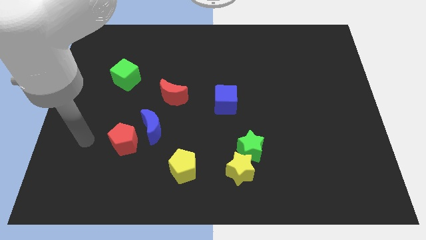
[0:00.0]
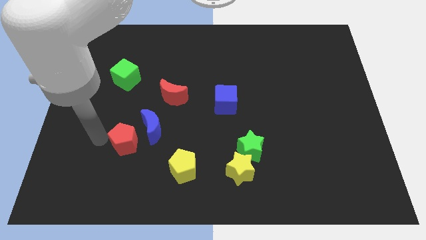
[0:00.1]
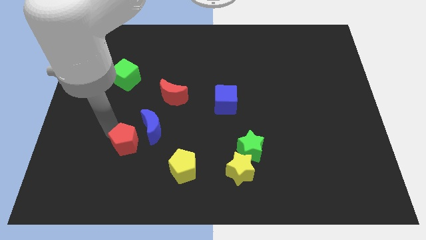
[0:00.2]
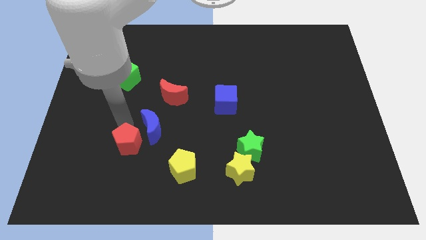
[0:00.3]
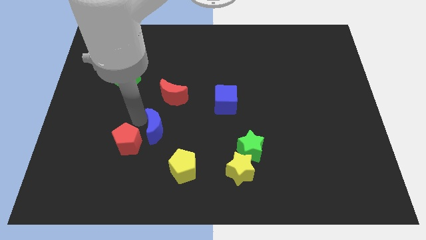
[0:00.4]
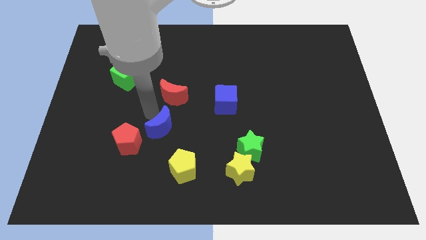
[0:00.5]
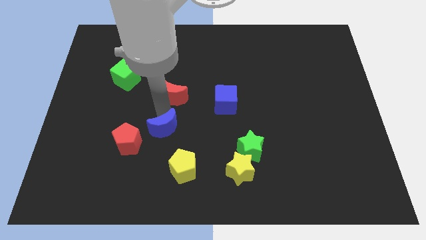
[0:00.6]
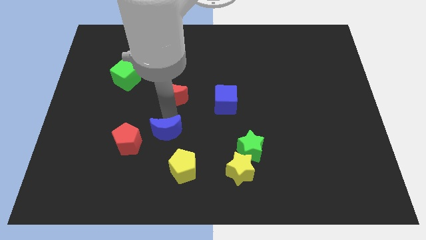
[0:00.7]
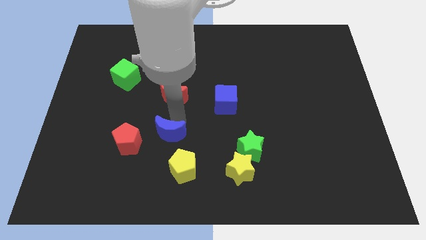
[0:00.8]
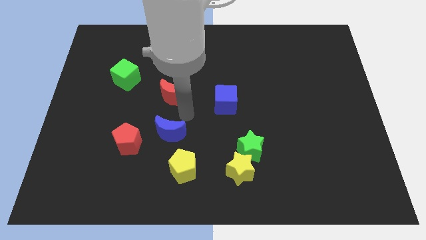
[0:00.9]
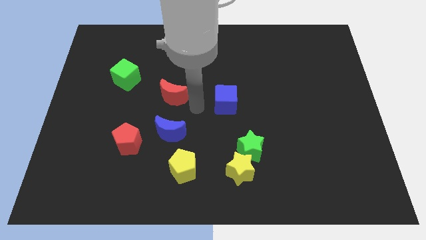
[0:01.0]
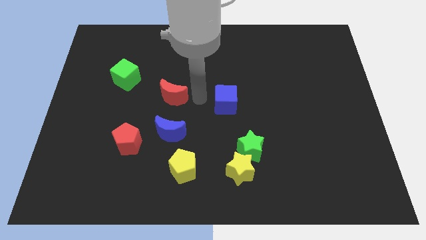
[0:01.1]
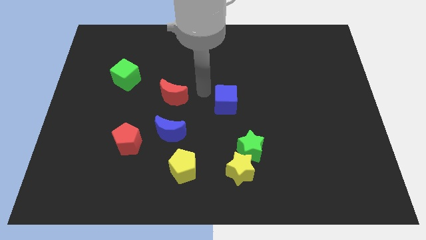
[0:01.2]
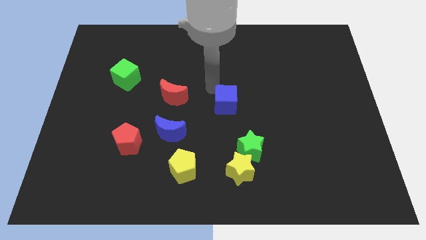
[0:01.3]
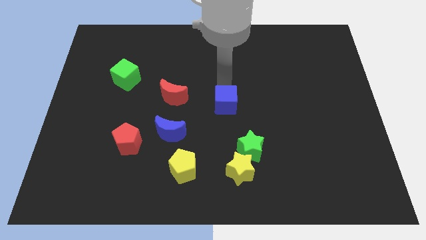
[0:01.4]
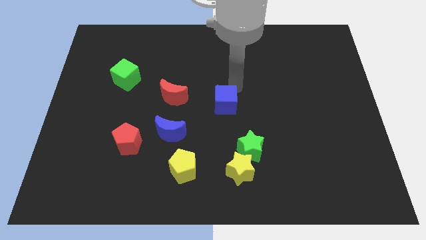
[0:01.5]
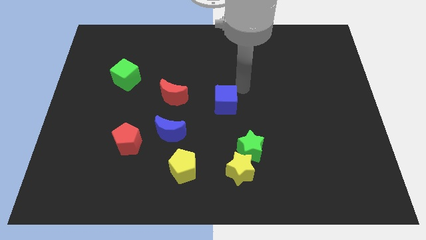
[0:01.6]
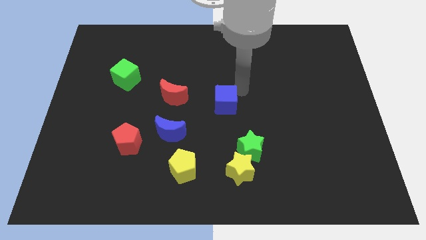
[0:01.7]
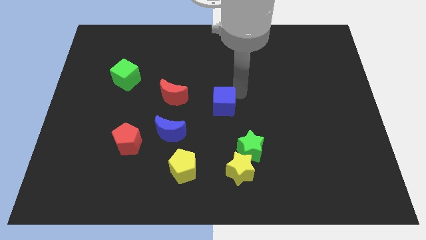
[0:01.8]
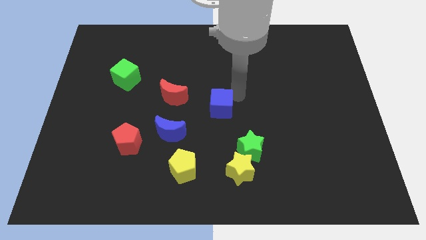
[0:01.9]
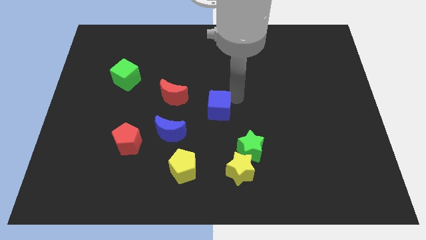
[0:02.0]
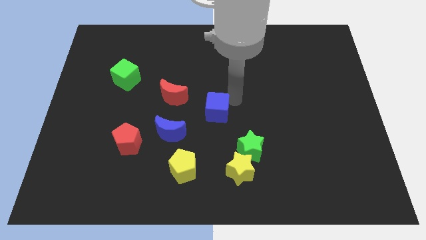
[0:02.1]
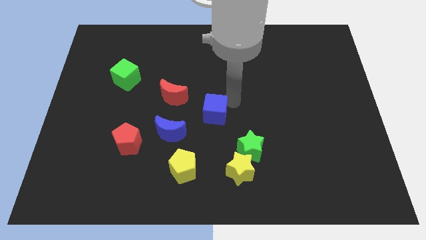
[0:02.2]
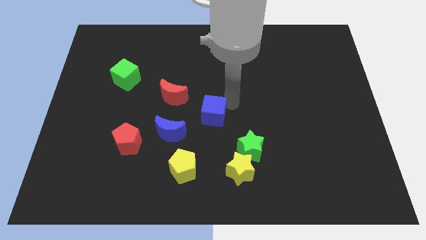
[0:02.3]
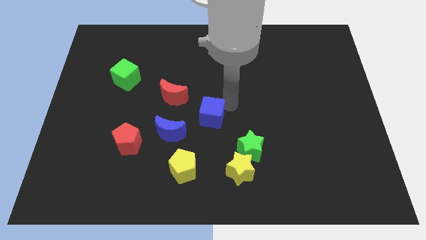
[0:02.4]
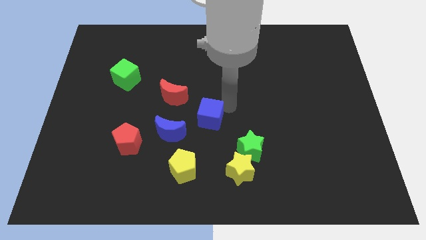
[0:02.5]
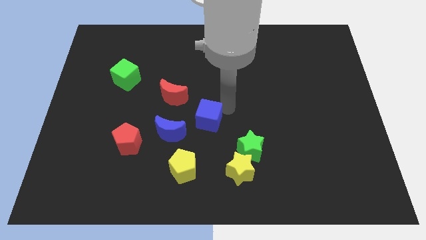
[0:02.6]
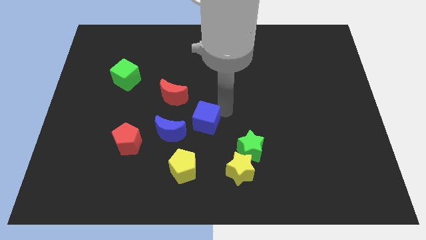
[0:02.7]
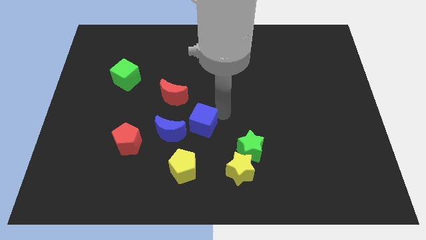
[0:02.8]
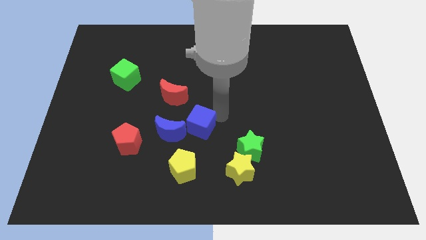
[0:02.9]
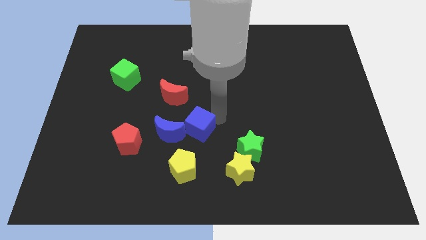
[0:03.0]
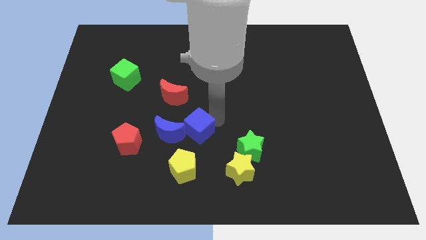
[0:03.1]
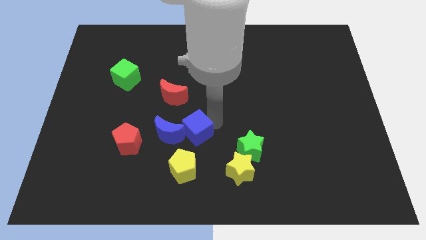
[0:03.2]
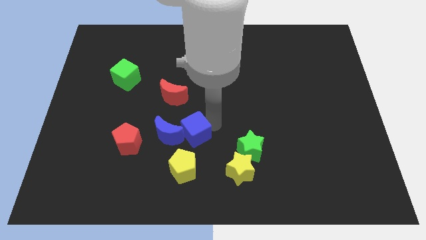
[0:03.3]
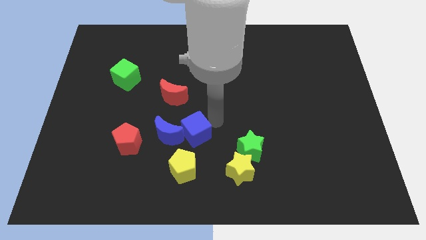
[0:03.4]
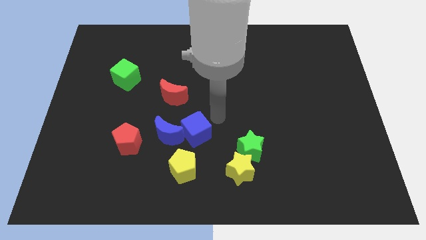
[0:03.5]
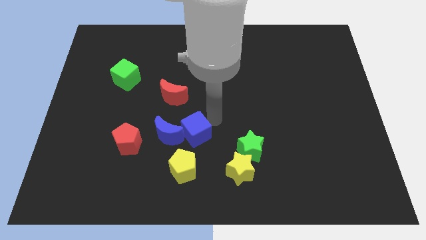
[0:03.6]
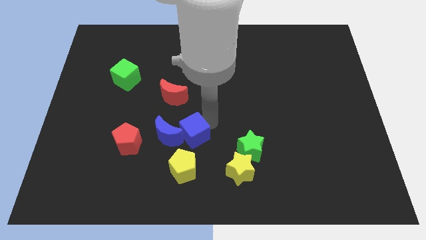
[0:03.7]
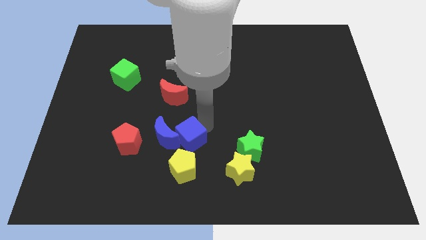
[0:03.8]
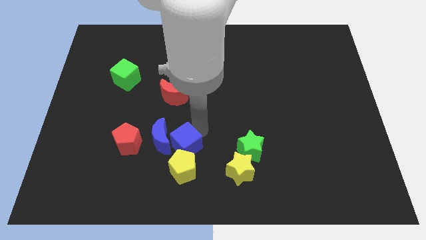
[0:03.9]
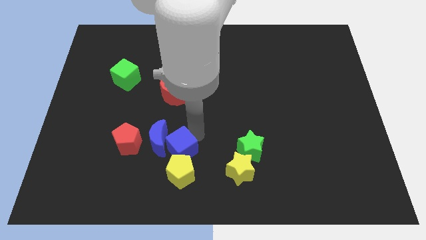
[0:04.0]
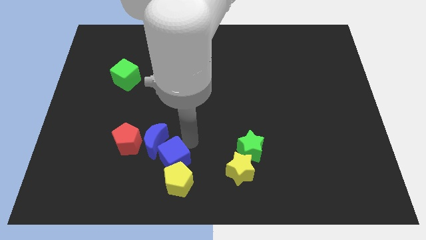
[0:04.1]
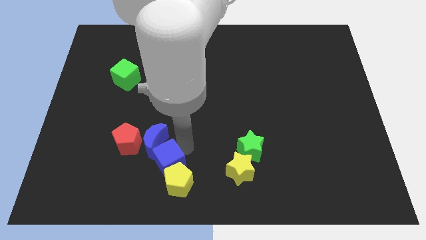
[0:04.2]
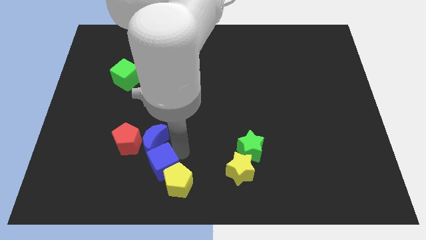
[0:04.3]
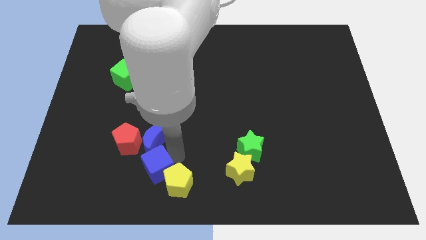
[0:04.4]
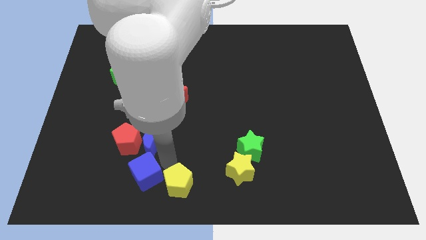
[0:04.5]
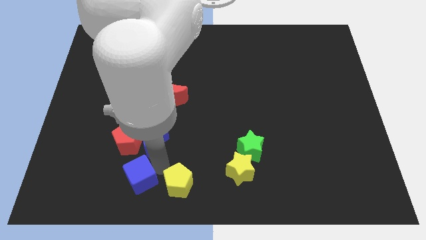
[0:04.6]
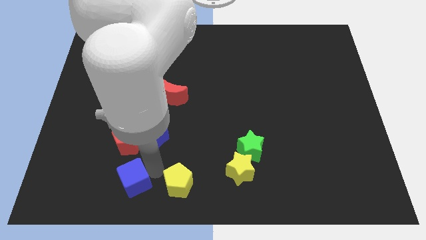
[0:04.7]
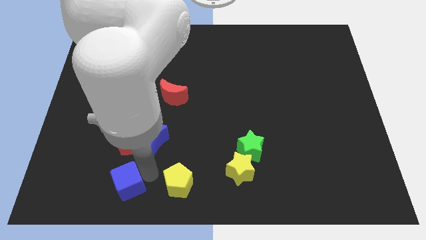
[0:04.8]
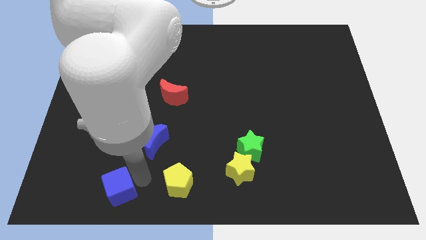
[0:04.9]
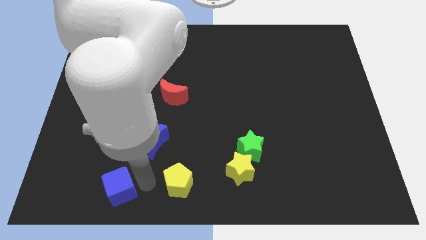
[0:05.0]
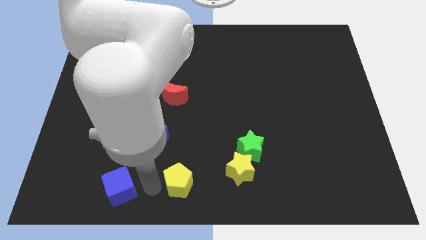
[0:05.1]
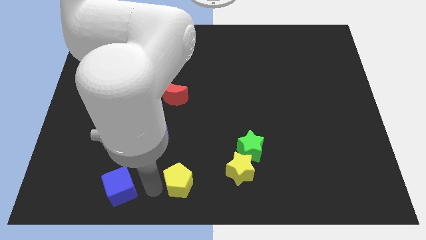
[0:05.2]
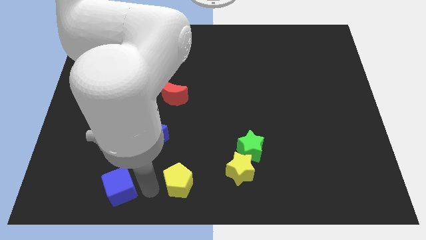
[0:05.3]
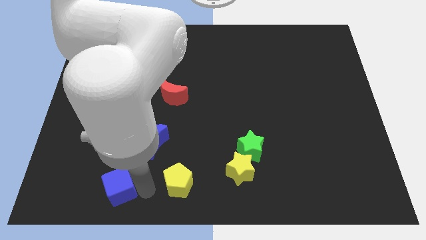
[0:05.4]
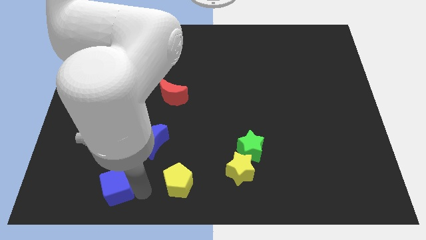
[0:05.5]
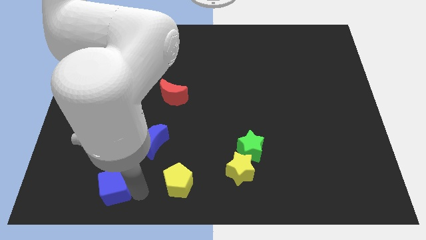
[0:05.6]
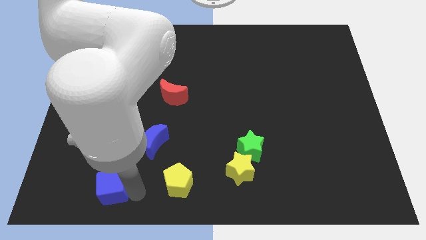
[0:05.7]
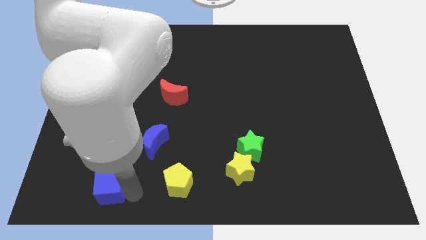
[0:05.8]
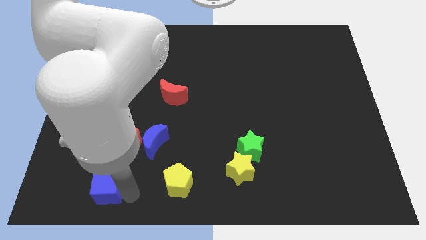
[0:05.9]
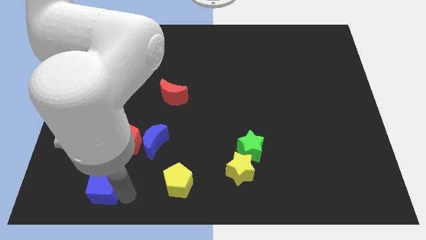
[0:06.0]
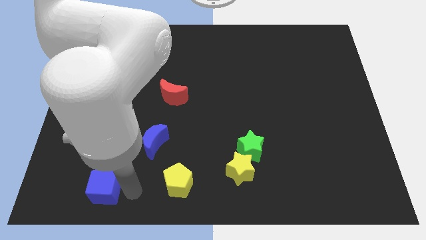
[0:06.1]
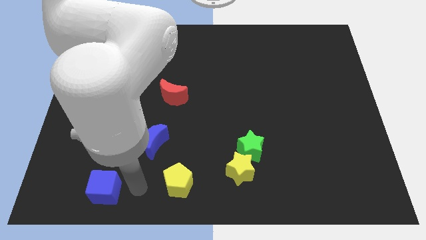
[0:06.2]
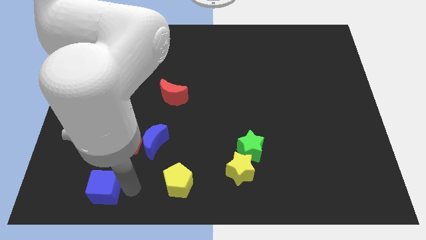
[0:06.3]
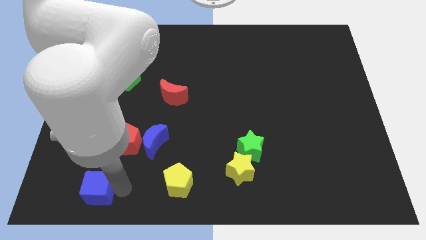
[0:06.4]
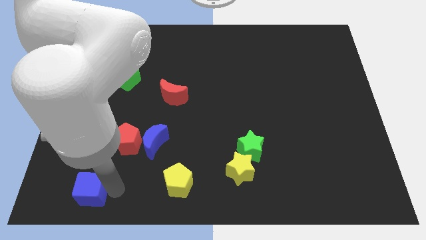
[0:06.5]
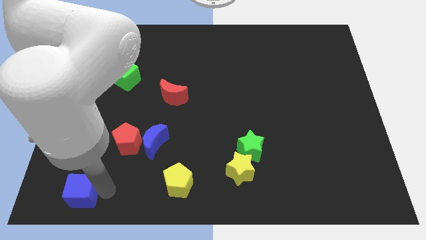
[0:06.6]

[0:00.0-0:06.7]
move the blue cube to the bottom left corner
